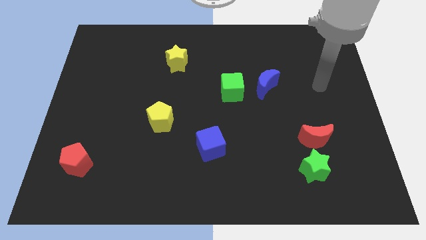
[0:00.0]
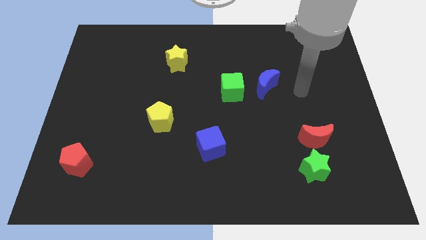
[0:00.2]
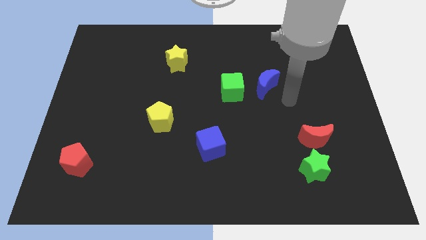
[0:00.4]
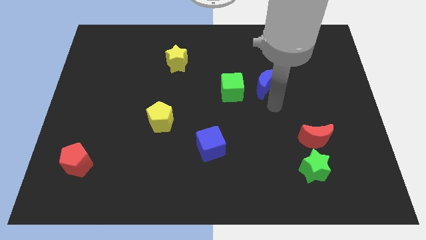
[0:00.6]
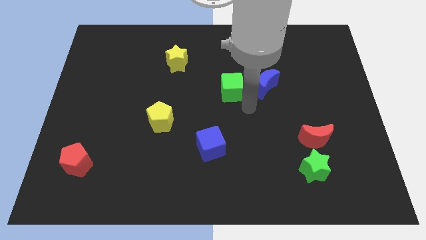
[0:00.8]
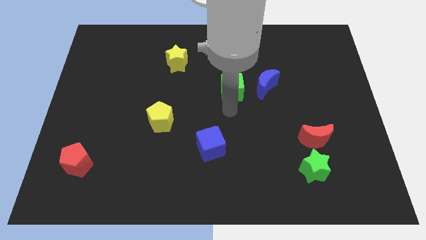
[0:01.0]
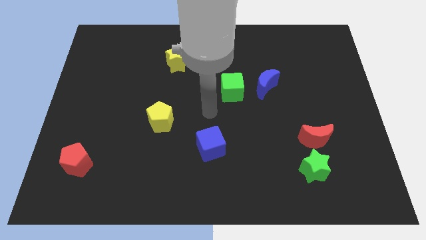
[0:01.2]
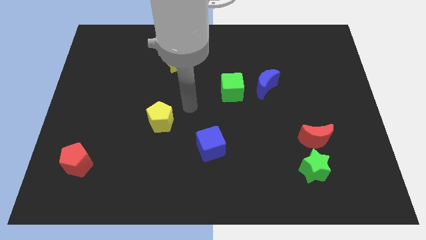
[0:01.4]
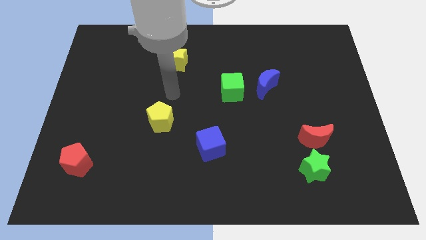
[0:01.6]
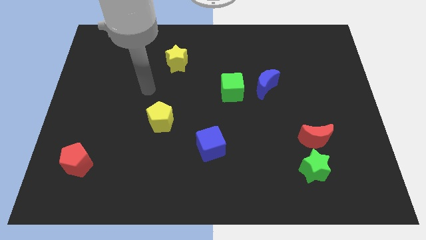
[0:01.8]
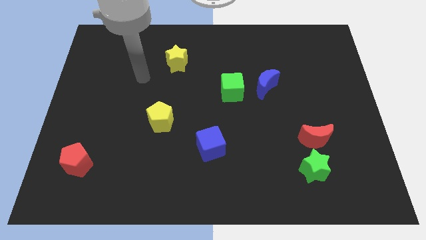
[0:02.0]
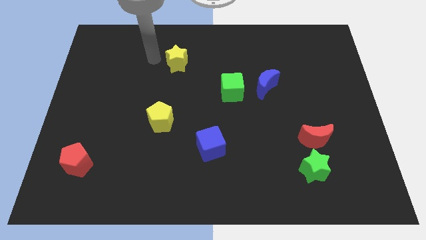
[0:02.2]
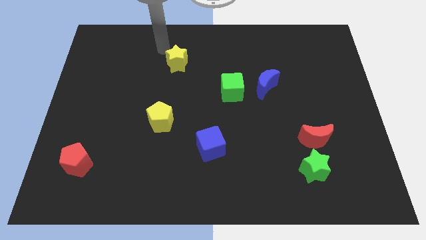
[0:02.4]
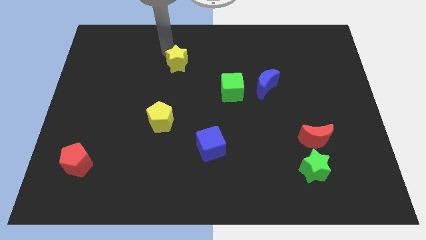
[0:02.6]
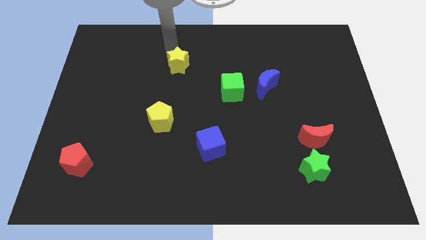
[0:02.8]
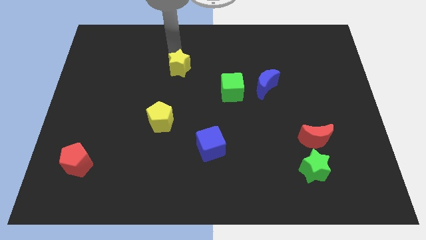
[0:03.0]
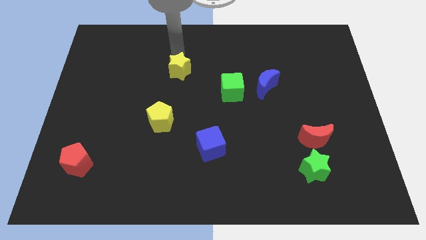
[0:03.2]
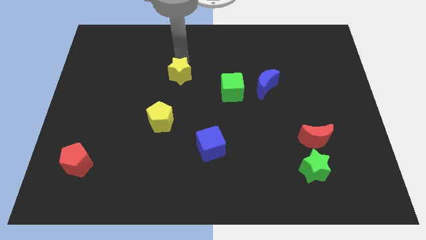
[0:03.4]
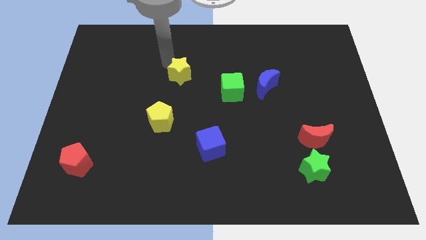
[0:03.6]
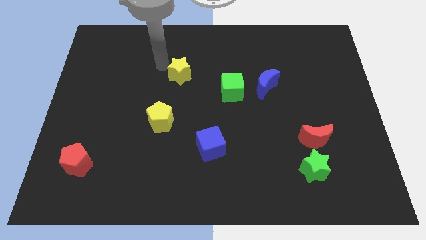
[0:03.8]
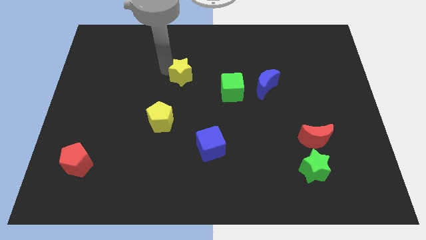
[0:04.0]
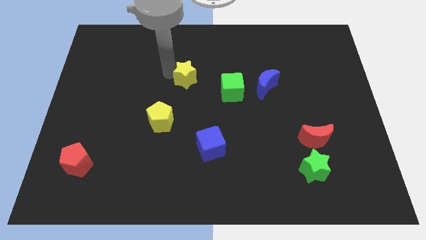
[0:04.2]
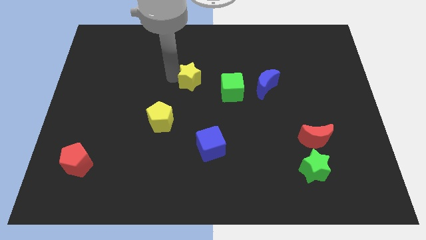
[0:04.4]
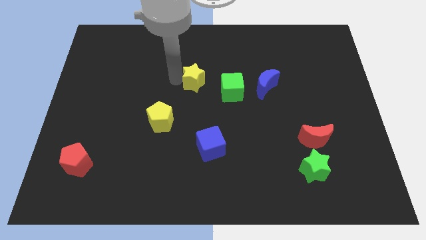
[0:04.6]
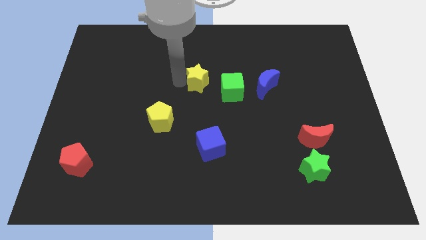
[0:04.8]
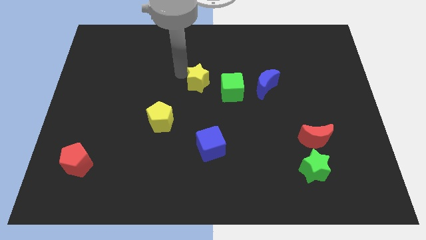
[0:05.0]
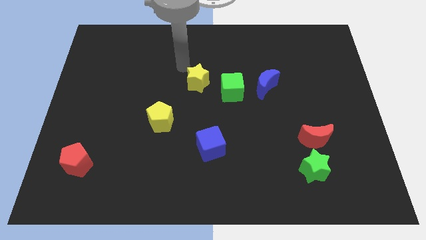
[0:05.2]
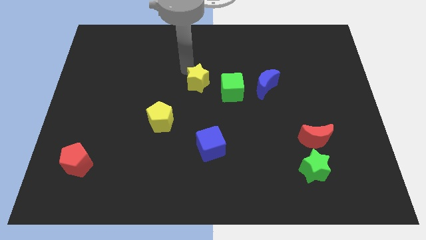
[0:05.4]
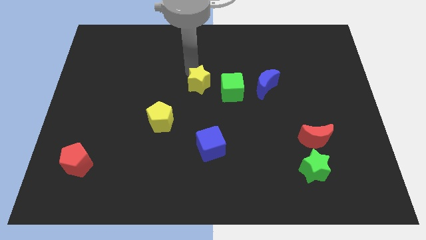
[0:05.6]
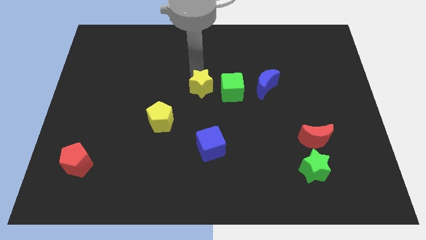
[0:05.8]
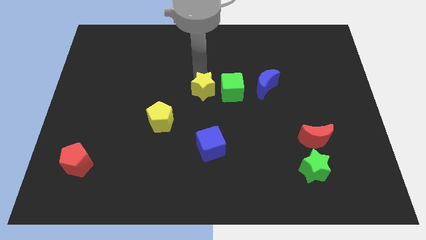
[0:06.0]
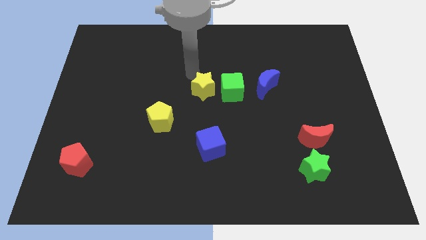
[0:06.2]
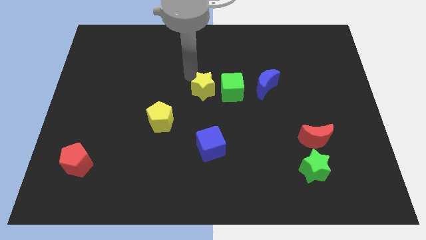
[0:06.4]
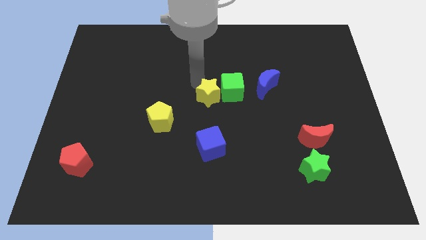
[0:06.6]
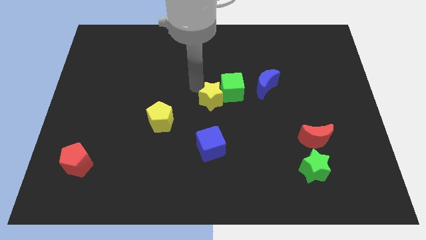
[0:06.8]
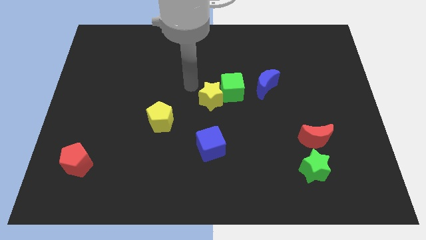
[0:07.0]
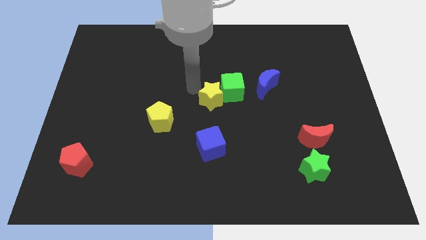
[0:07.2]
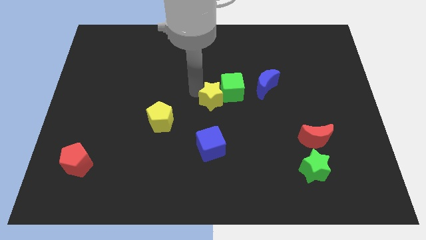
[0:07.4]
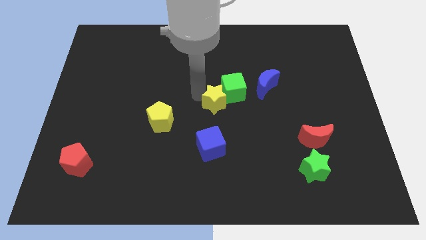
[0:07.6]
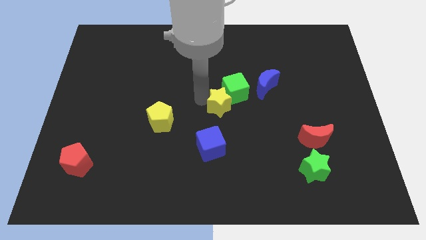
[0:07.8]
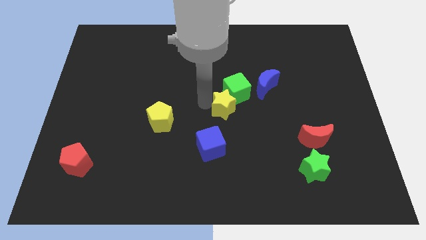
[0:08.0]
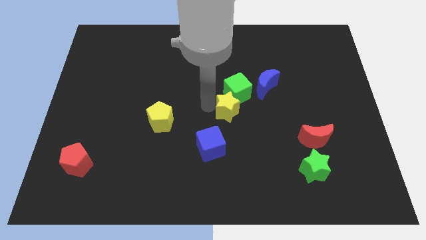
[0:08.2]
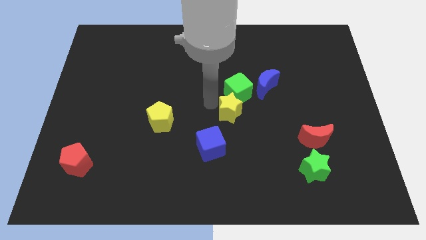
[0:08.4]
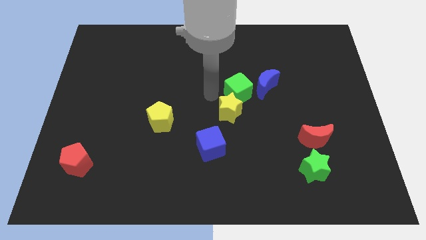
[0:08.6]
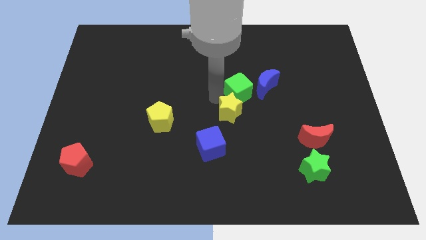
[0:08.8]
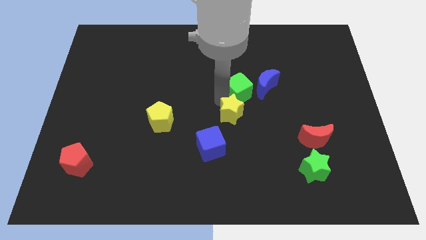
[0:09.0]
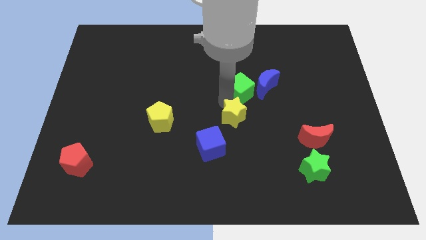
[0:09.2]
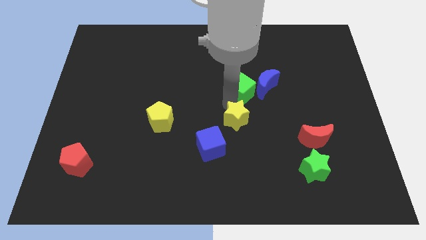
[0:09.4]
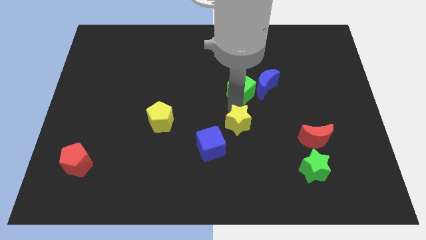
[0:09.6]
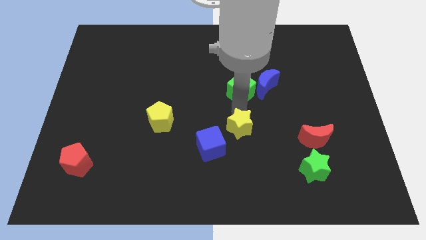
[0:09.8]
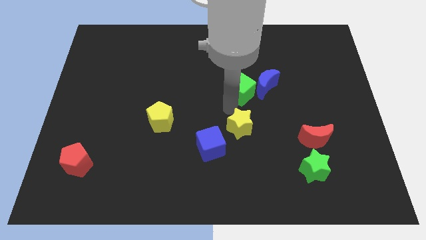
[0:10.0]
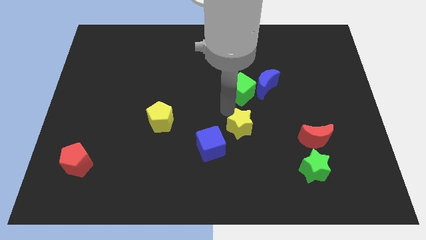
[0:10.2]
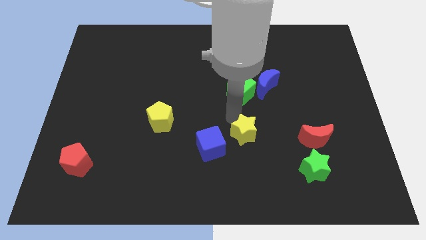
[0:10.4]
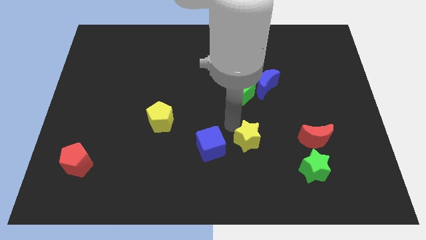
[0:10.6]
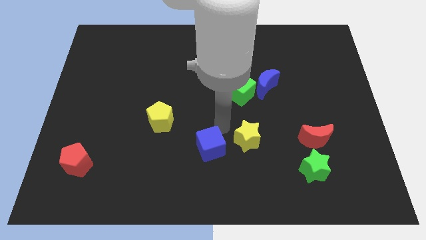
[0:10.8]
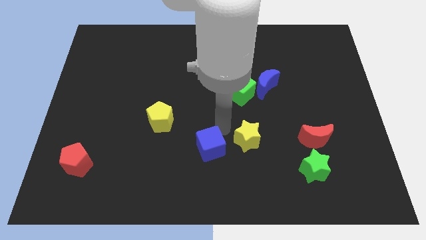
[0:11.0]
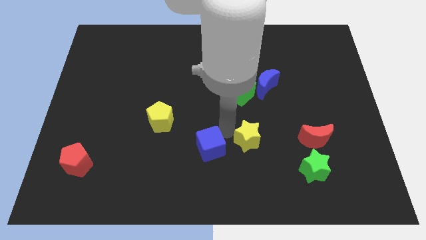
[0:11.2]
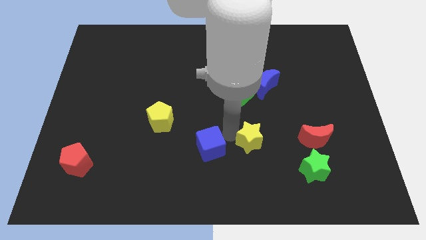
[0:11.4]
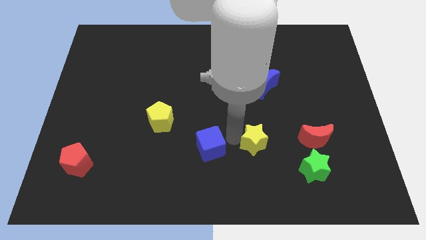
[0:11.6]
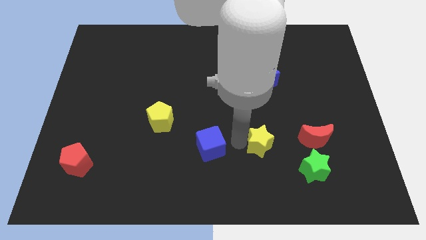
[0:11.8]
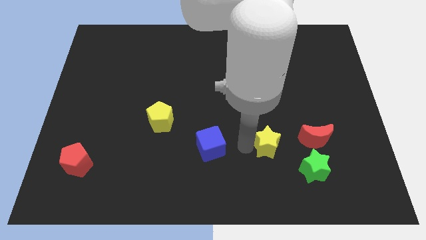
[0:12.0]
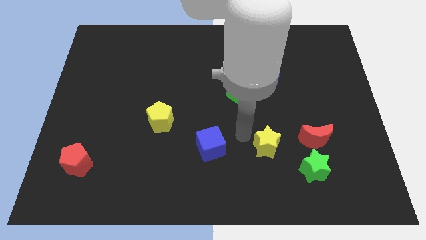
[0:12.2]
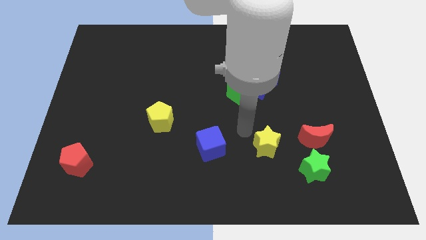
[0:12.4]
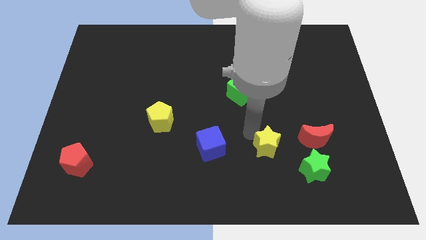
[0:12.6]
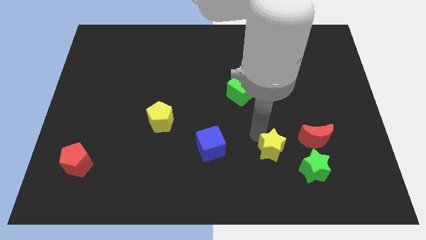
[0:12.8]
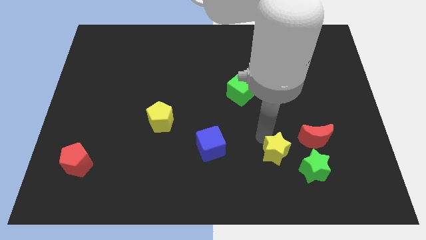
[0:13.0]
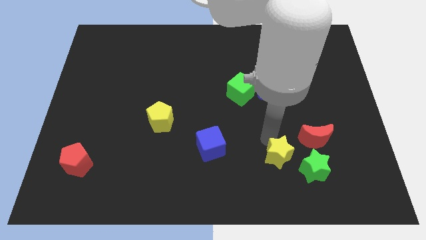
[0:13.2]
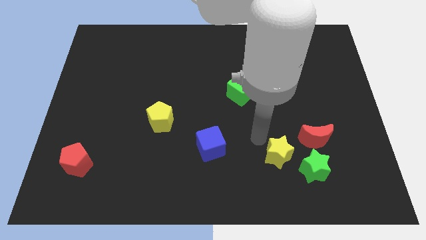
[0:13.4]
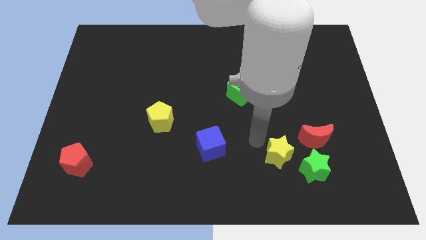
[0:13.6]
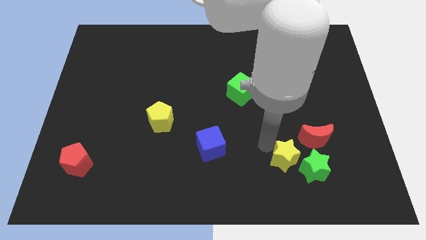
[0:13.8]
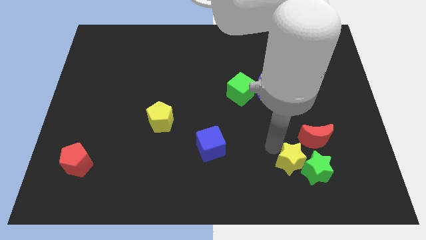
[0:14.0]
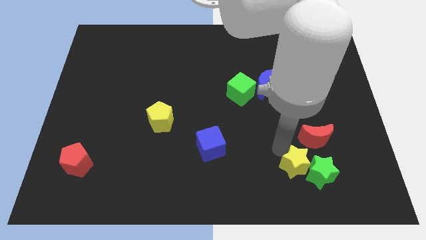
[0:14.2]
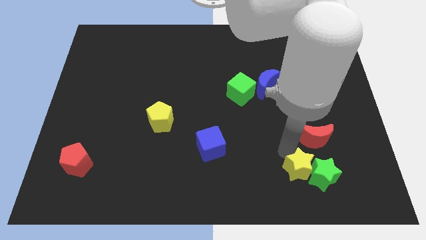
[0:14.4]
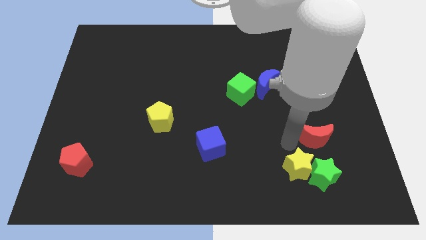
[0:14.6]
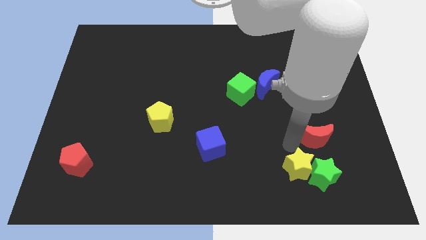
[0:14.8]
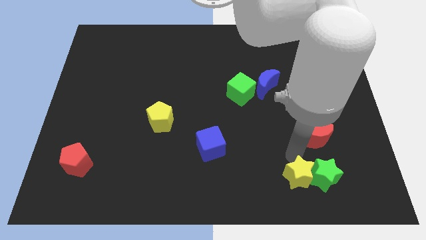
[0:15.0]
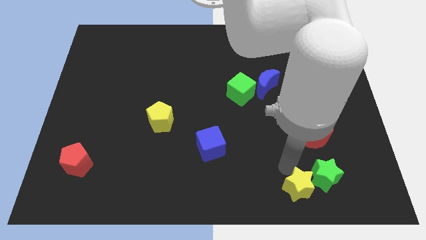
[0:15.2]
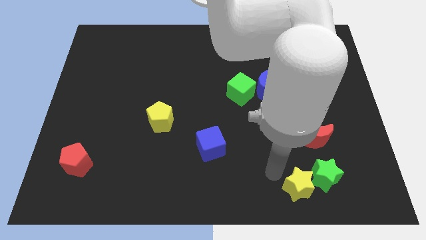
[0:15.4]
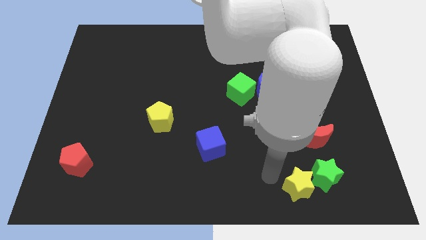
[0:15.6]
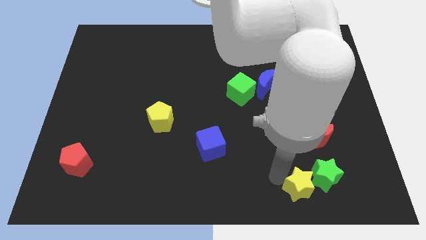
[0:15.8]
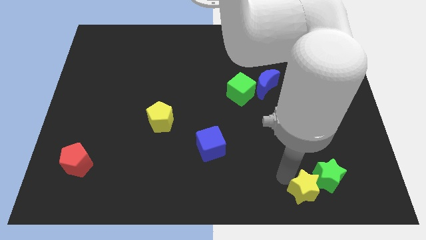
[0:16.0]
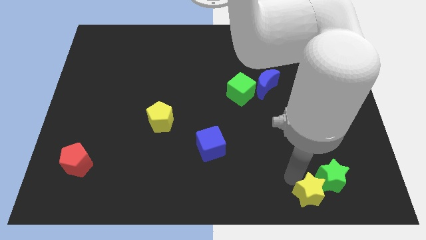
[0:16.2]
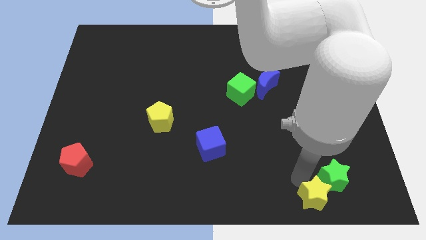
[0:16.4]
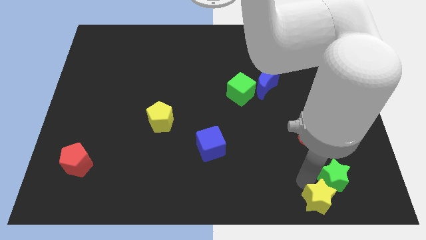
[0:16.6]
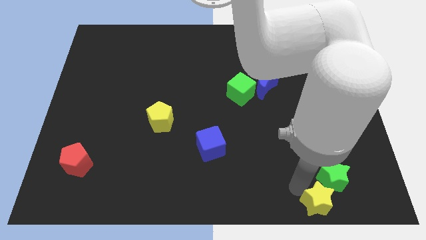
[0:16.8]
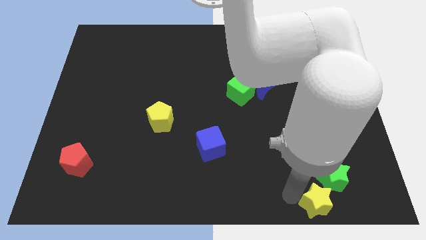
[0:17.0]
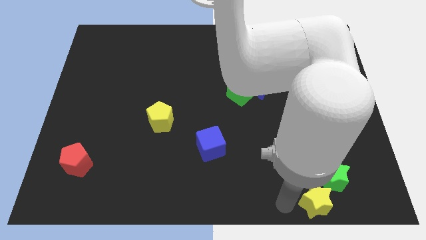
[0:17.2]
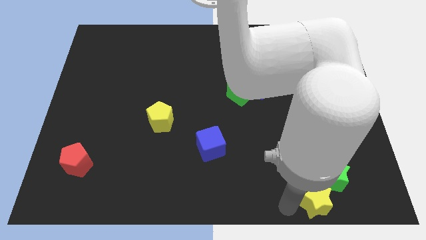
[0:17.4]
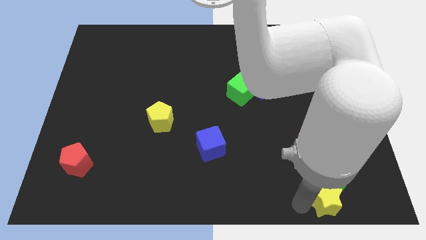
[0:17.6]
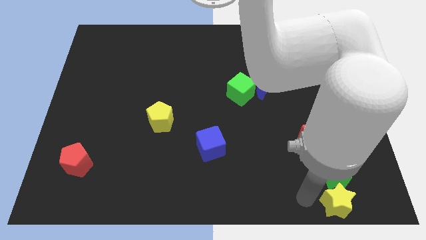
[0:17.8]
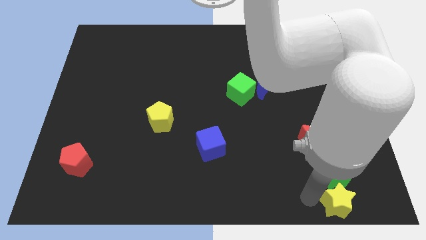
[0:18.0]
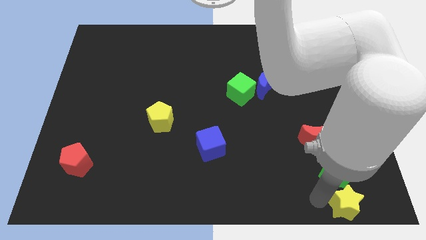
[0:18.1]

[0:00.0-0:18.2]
move the yellow star to the bottom right
